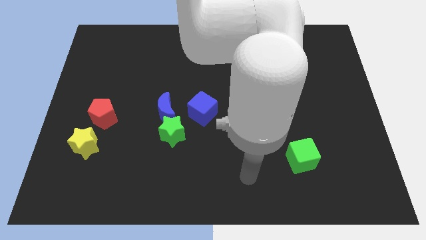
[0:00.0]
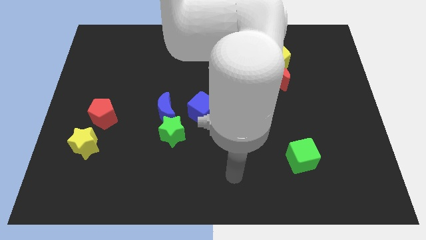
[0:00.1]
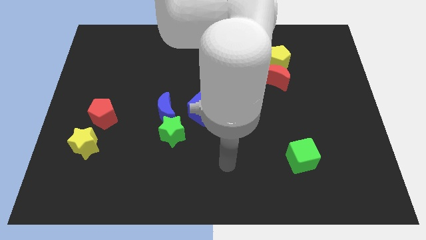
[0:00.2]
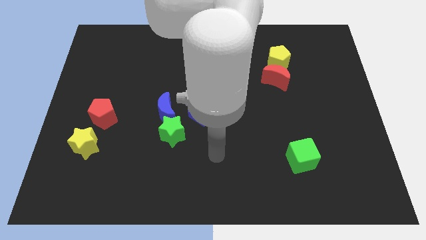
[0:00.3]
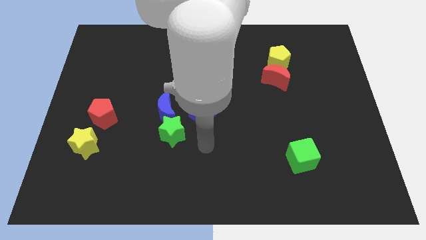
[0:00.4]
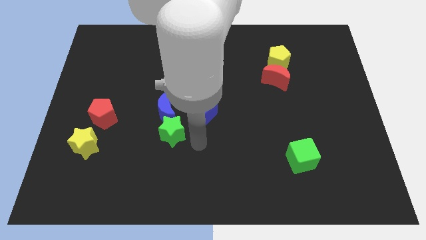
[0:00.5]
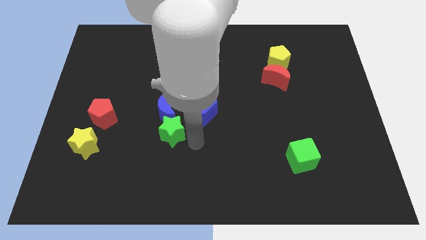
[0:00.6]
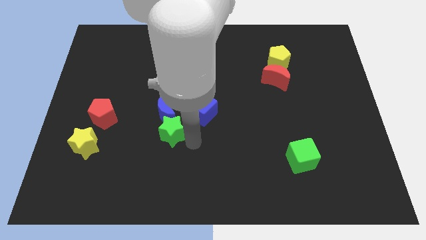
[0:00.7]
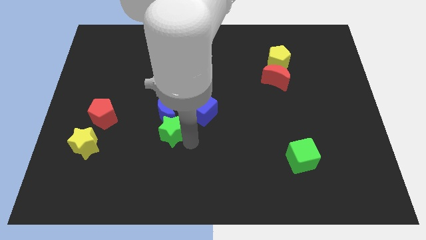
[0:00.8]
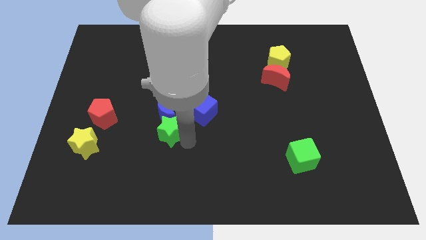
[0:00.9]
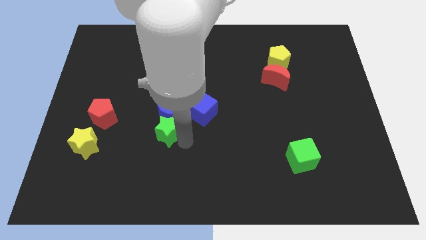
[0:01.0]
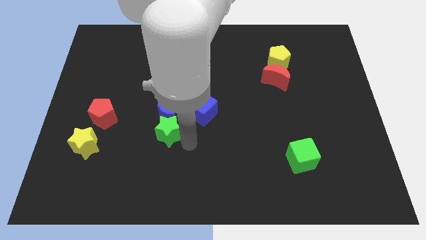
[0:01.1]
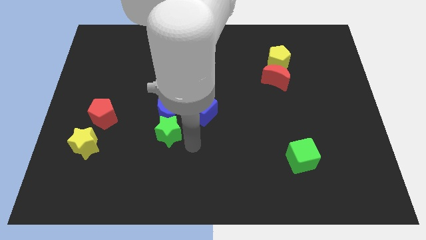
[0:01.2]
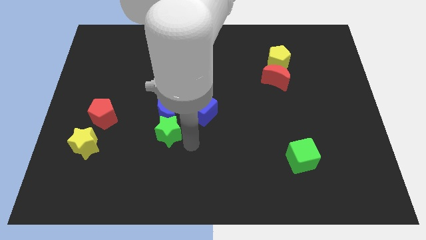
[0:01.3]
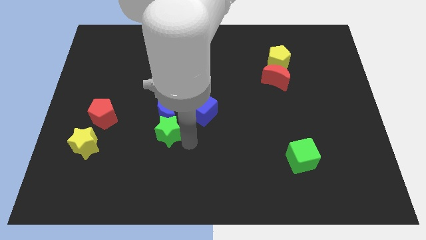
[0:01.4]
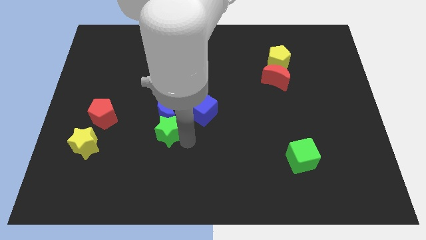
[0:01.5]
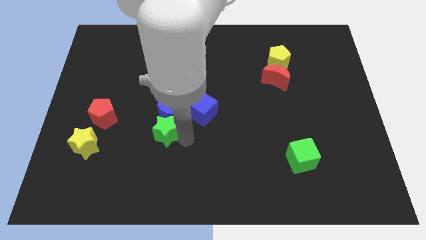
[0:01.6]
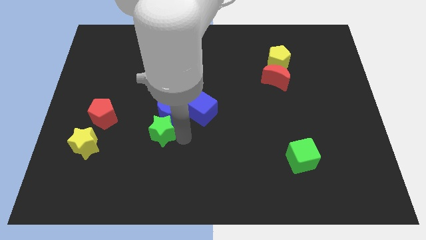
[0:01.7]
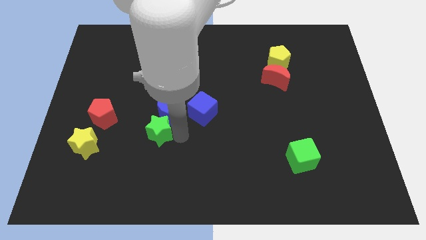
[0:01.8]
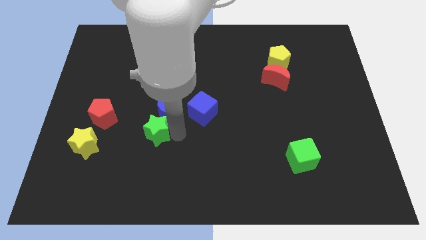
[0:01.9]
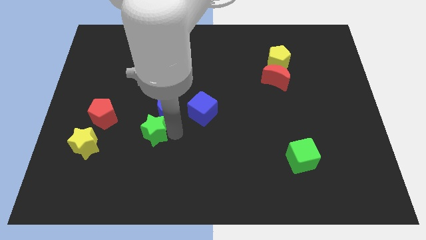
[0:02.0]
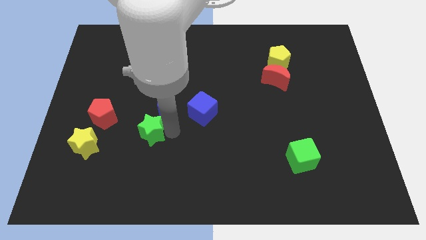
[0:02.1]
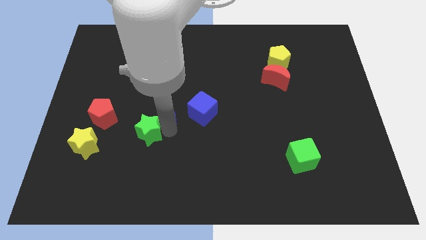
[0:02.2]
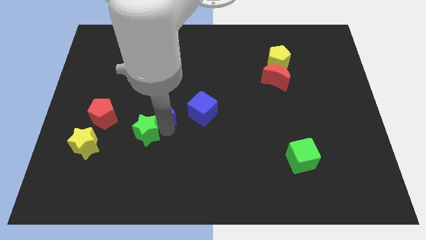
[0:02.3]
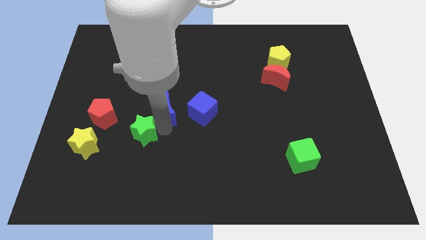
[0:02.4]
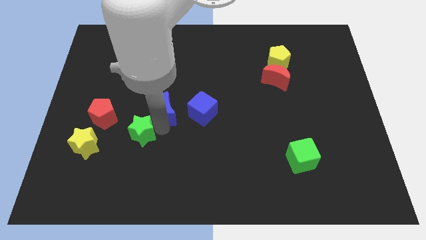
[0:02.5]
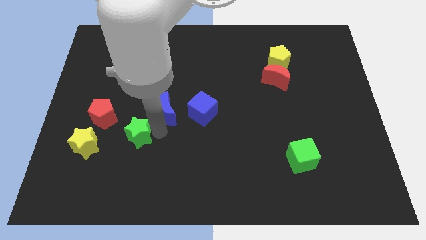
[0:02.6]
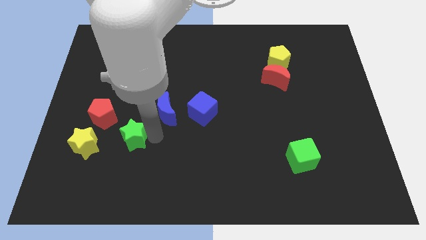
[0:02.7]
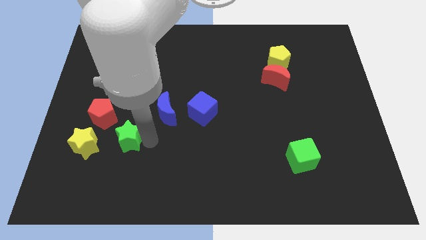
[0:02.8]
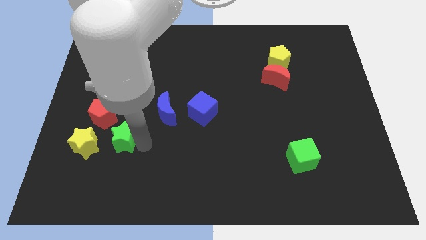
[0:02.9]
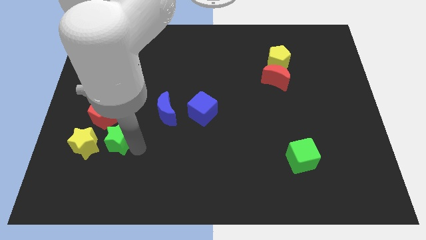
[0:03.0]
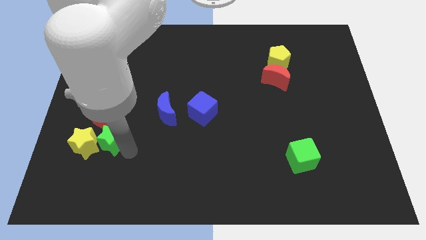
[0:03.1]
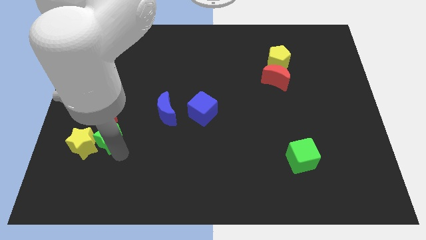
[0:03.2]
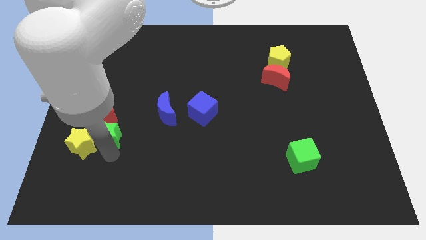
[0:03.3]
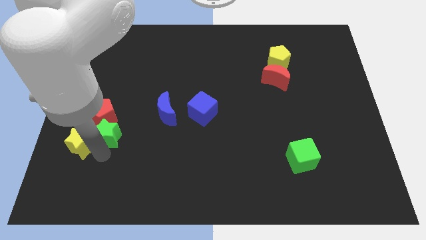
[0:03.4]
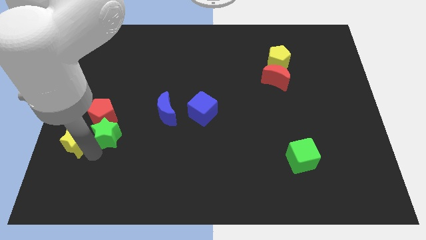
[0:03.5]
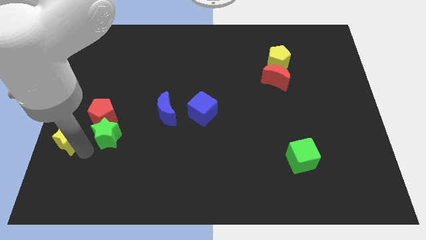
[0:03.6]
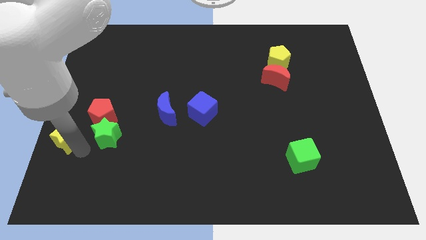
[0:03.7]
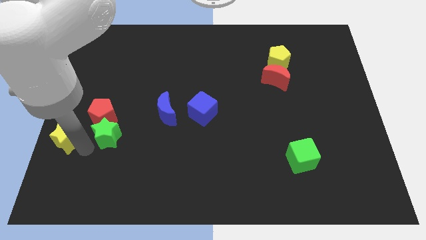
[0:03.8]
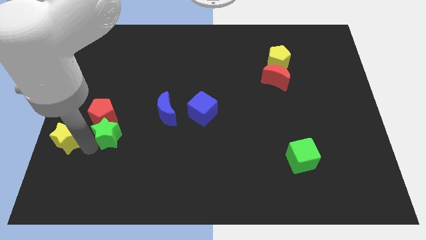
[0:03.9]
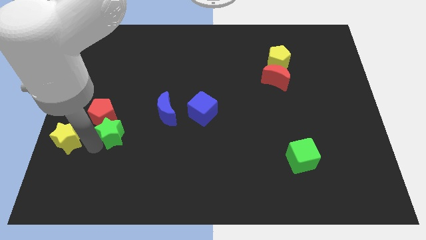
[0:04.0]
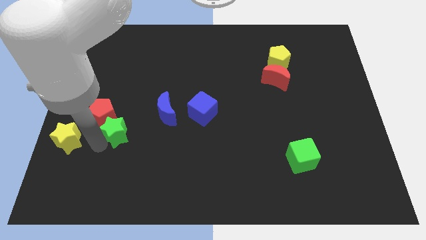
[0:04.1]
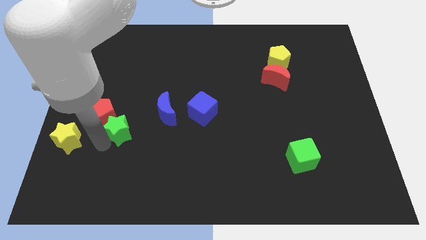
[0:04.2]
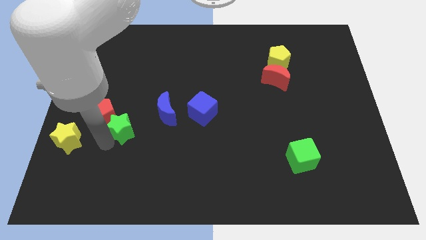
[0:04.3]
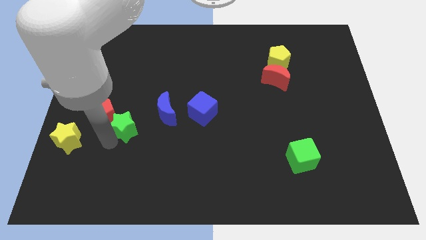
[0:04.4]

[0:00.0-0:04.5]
slide the green star diagonally up and left slightly

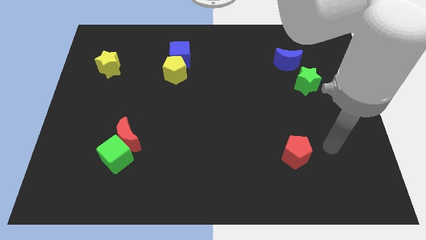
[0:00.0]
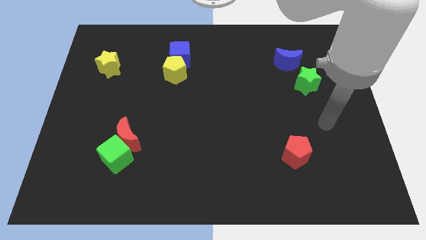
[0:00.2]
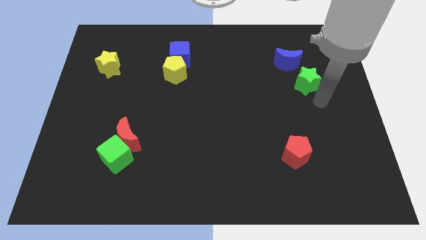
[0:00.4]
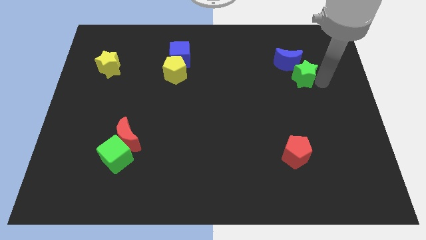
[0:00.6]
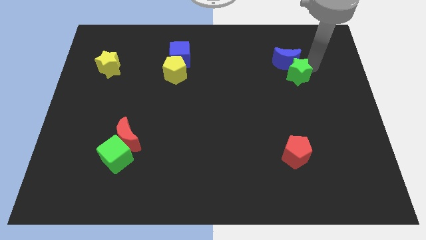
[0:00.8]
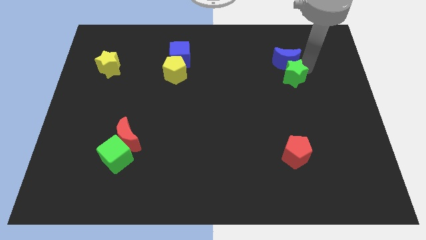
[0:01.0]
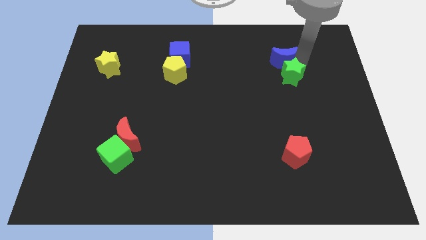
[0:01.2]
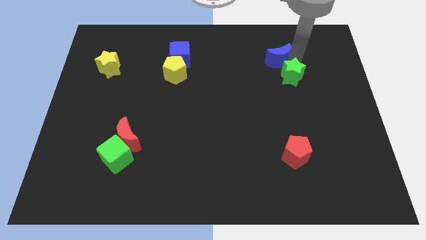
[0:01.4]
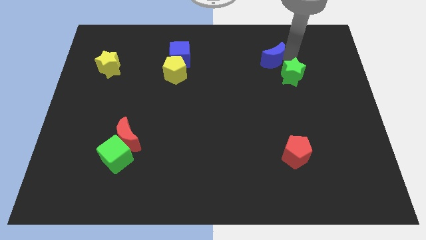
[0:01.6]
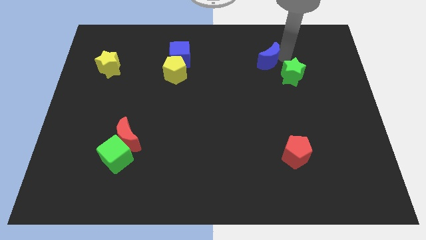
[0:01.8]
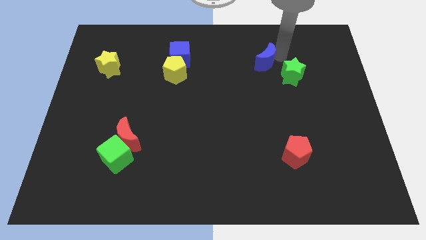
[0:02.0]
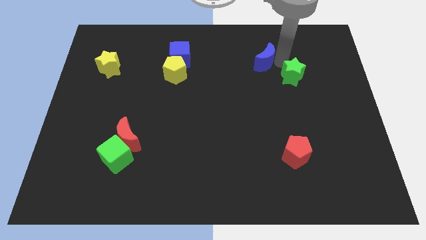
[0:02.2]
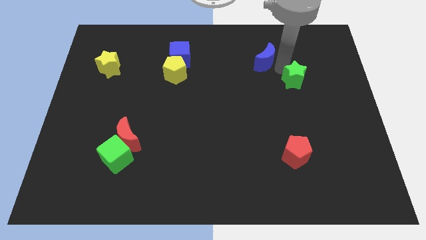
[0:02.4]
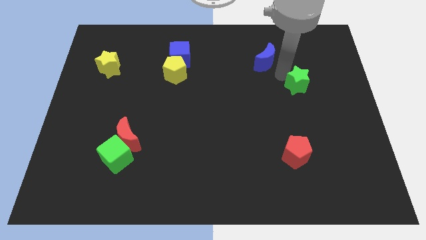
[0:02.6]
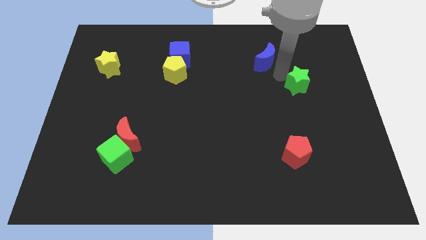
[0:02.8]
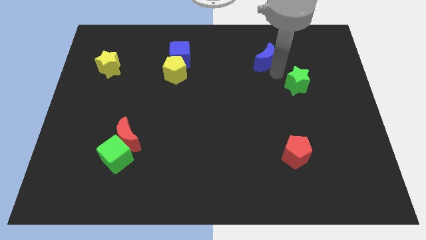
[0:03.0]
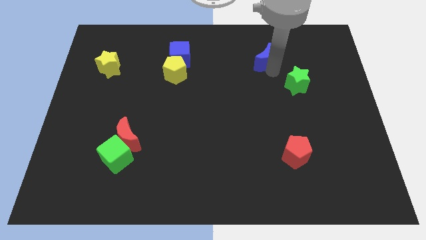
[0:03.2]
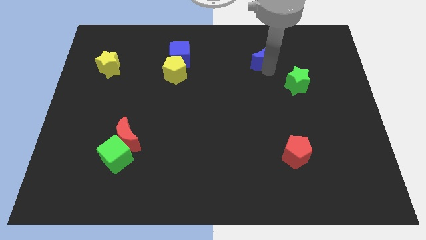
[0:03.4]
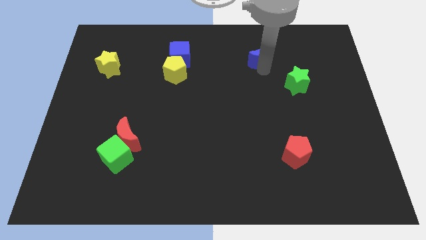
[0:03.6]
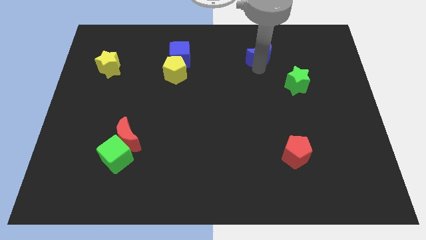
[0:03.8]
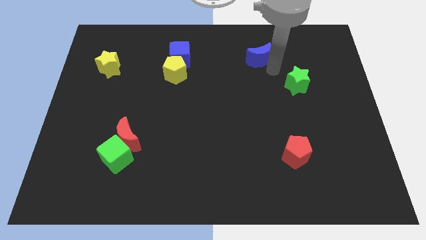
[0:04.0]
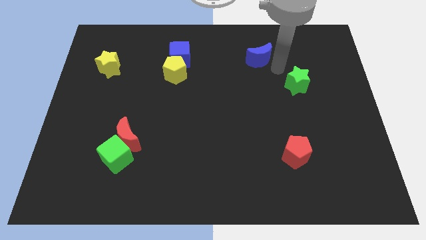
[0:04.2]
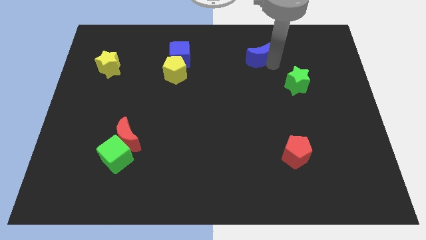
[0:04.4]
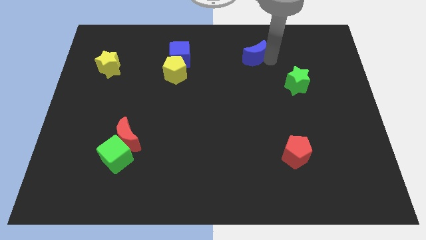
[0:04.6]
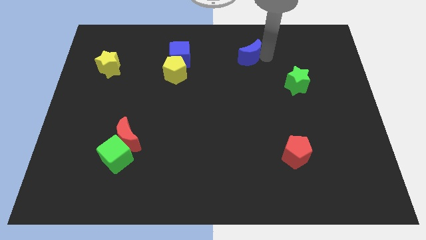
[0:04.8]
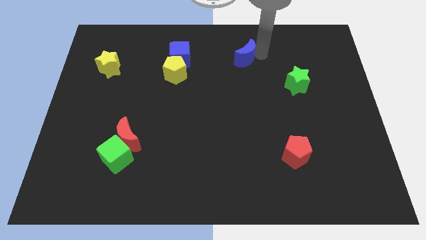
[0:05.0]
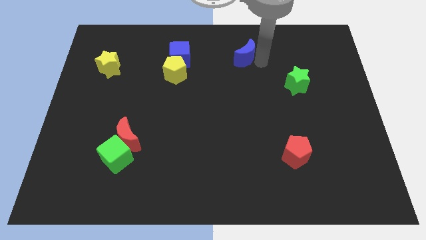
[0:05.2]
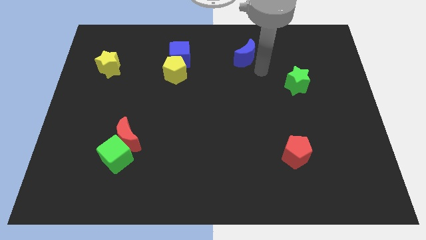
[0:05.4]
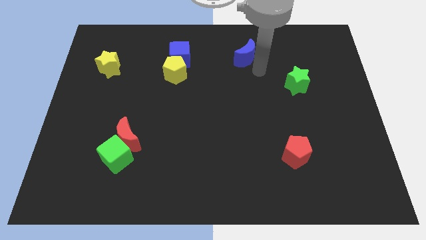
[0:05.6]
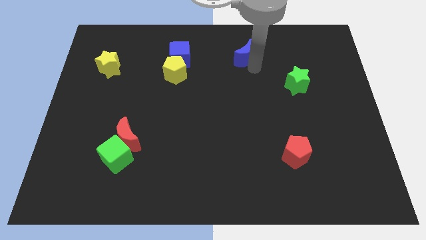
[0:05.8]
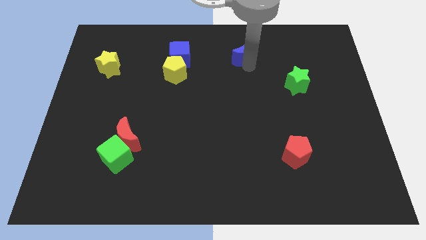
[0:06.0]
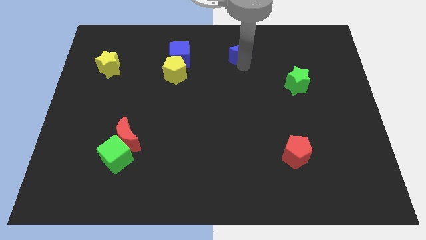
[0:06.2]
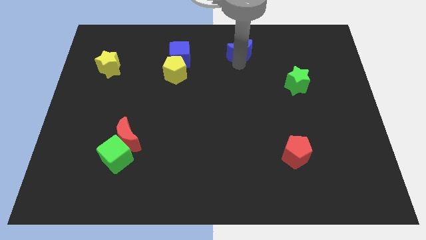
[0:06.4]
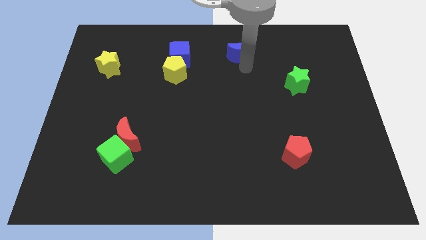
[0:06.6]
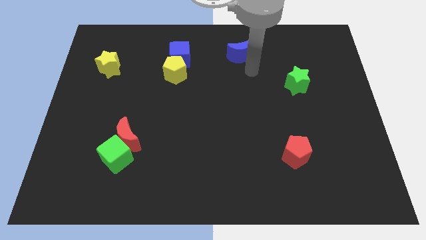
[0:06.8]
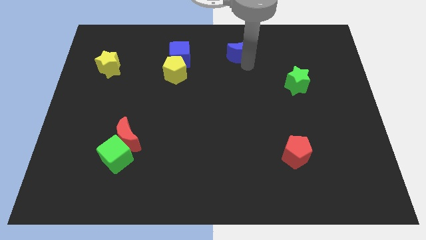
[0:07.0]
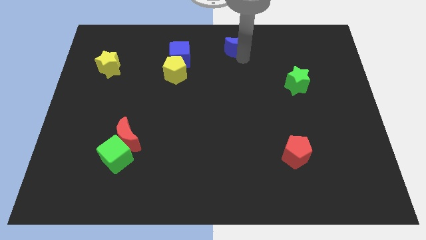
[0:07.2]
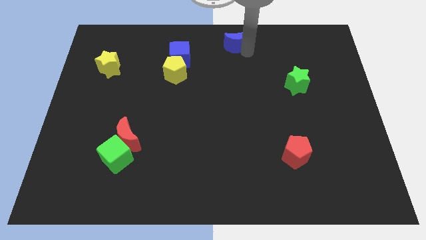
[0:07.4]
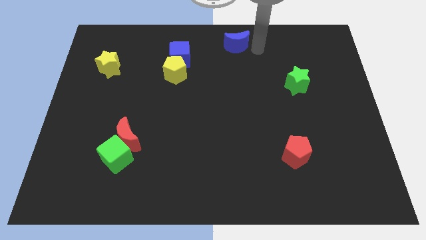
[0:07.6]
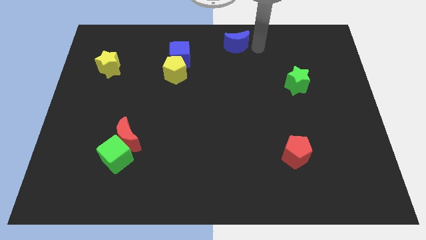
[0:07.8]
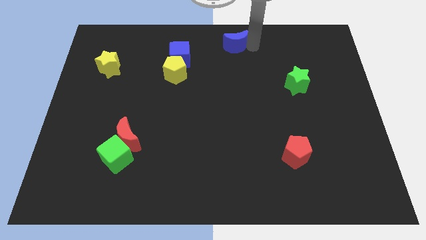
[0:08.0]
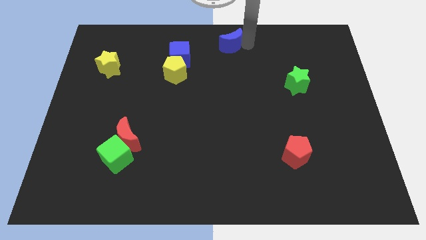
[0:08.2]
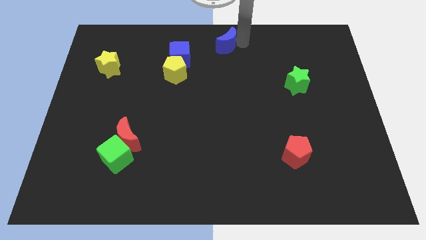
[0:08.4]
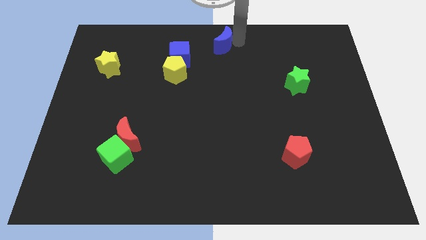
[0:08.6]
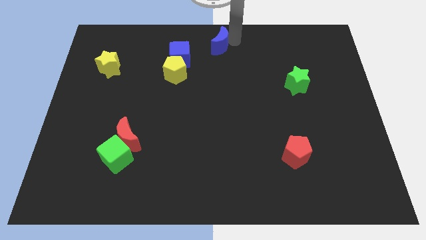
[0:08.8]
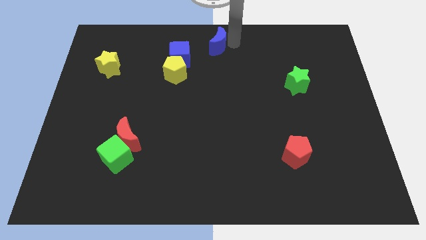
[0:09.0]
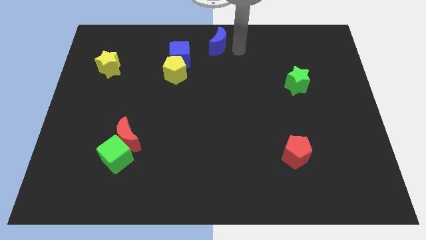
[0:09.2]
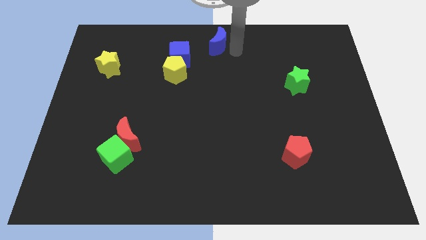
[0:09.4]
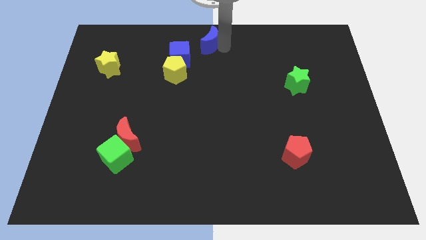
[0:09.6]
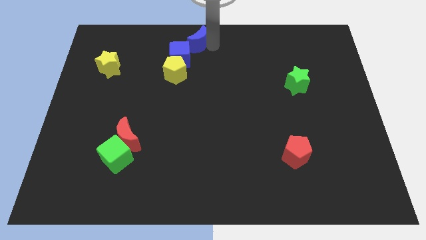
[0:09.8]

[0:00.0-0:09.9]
push the blue moon to the left
